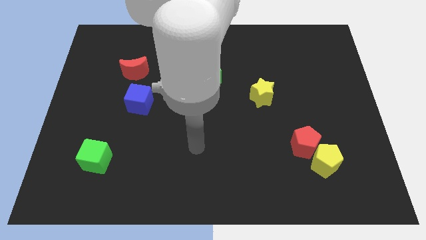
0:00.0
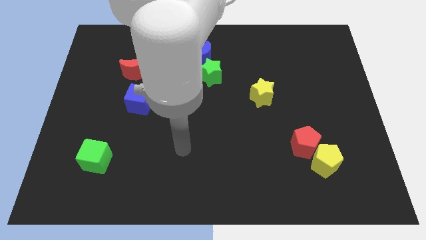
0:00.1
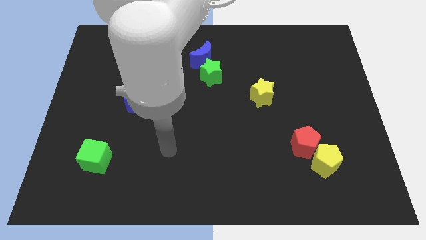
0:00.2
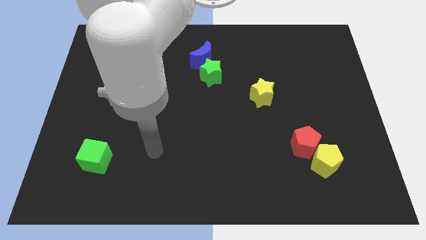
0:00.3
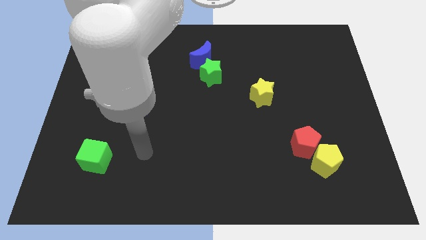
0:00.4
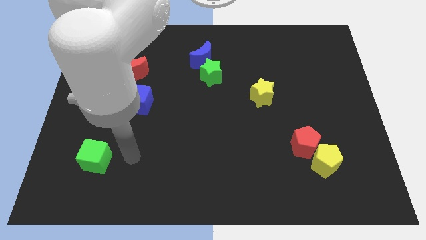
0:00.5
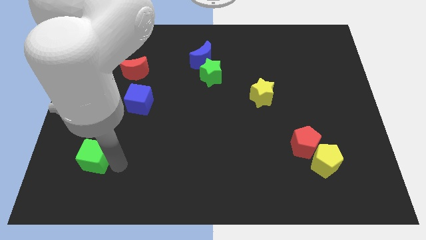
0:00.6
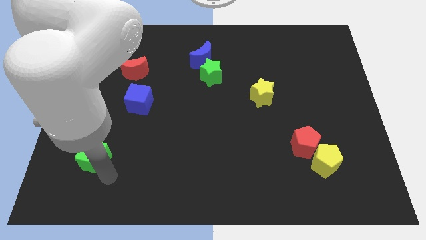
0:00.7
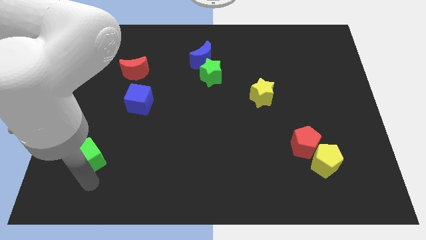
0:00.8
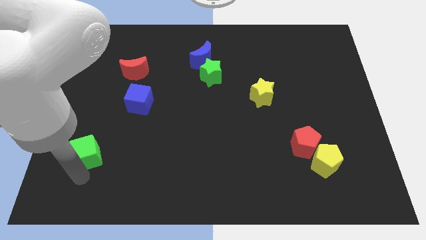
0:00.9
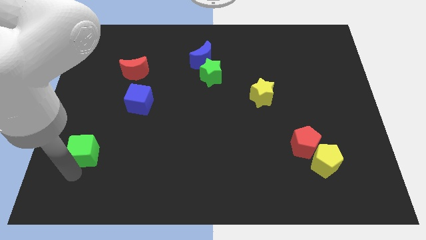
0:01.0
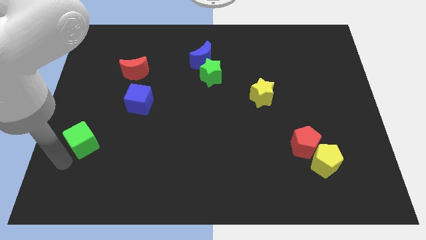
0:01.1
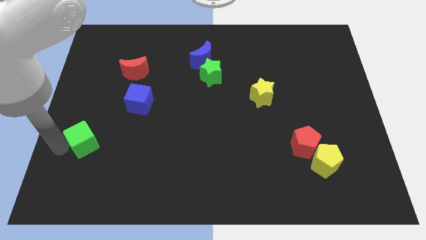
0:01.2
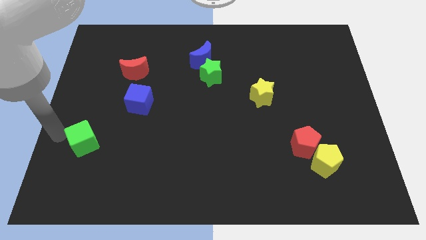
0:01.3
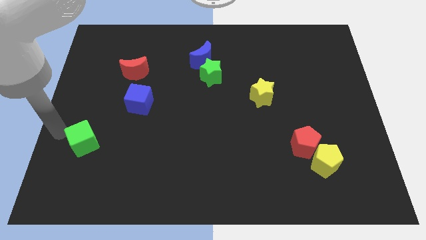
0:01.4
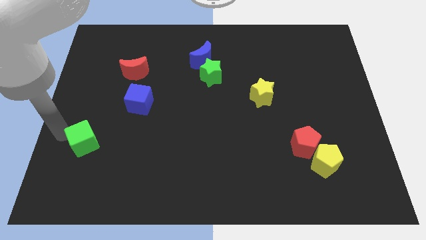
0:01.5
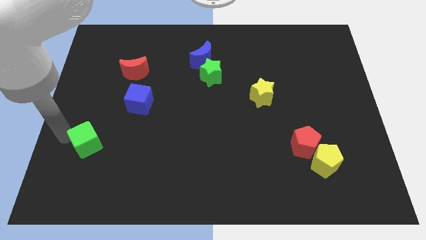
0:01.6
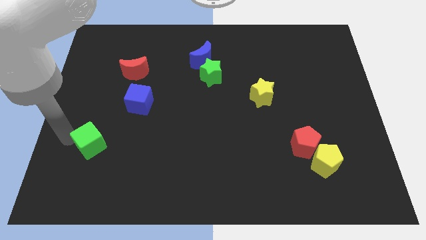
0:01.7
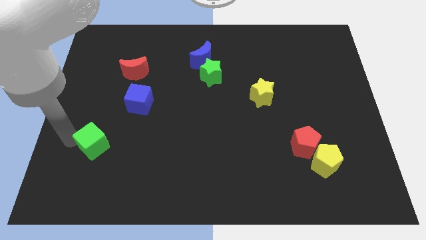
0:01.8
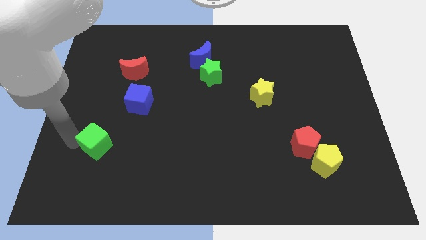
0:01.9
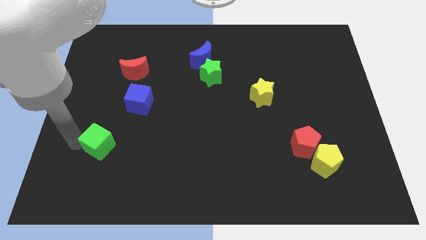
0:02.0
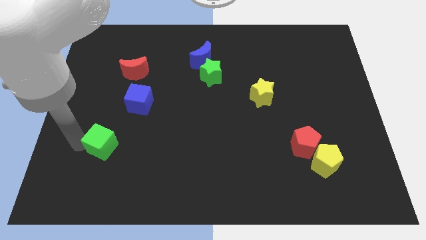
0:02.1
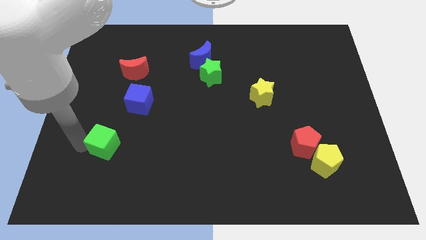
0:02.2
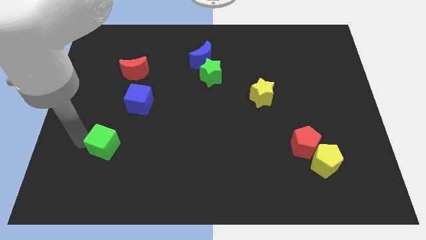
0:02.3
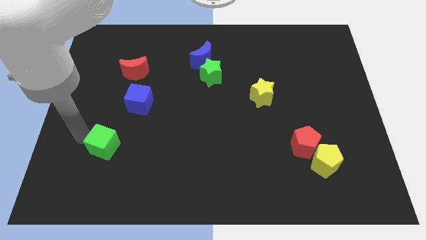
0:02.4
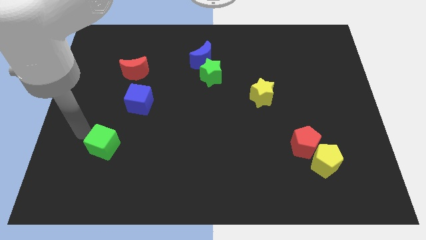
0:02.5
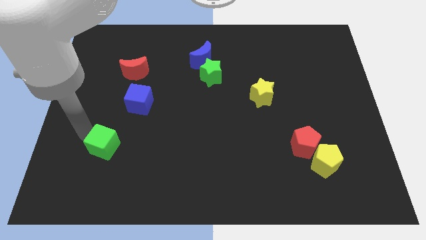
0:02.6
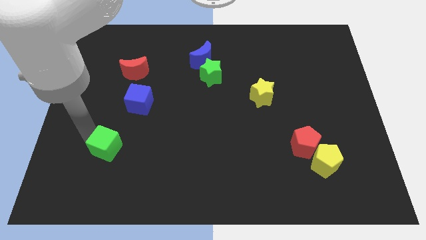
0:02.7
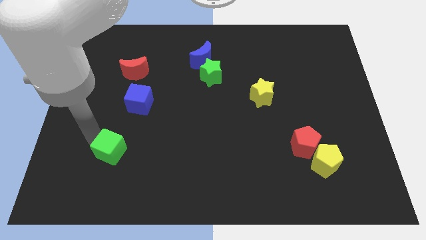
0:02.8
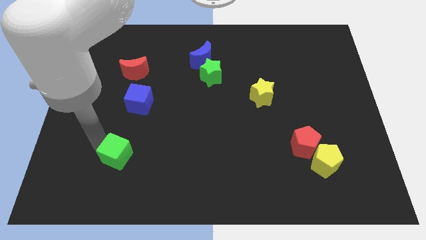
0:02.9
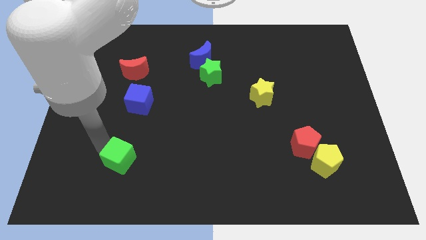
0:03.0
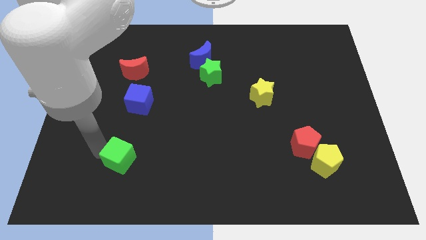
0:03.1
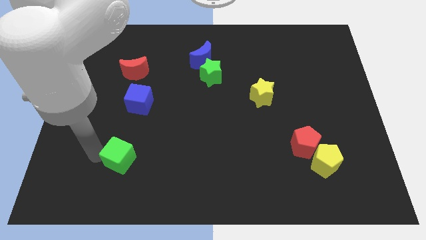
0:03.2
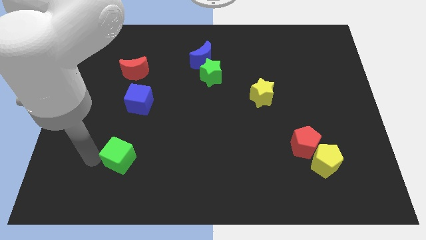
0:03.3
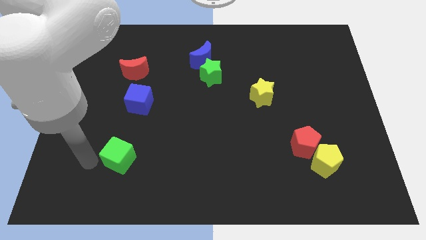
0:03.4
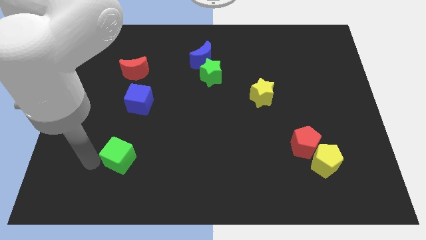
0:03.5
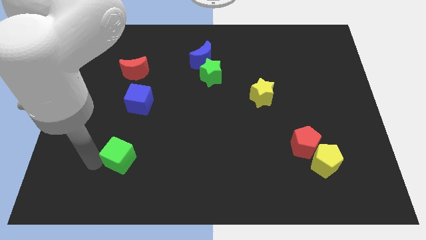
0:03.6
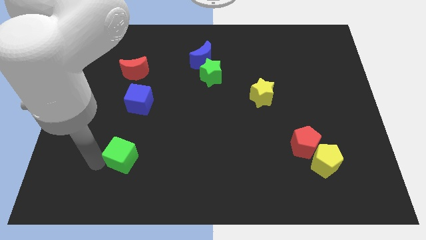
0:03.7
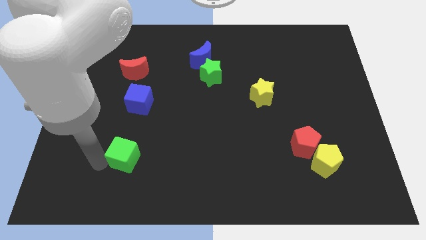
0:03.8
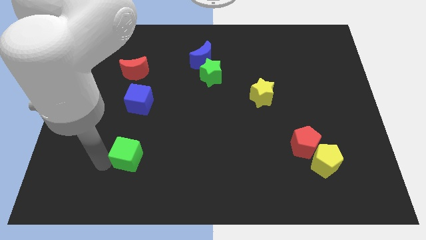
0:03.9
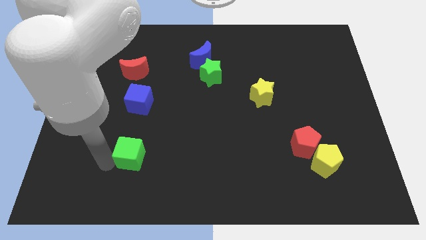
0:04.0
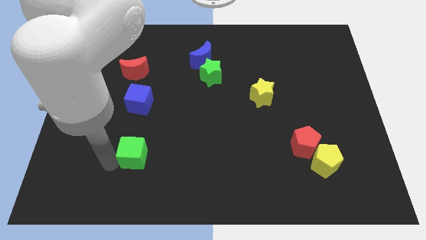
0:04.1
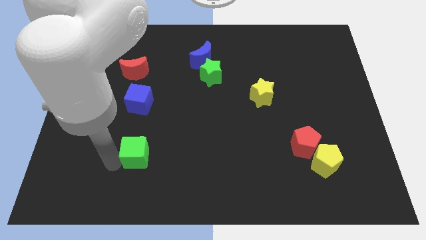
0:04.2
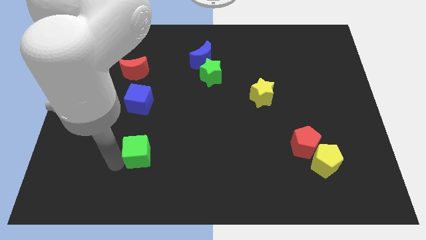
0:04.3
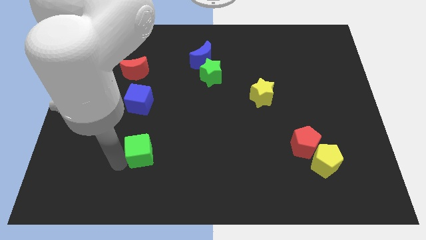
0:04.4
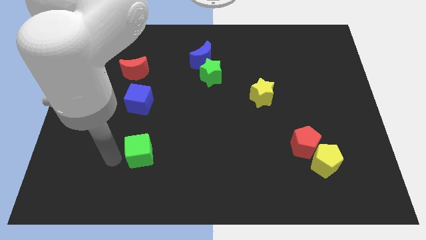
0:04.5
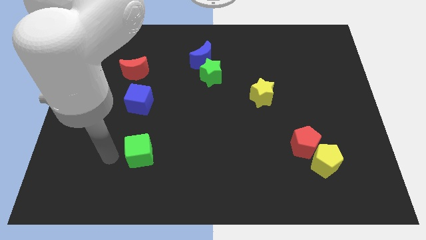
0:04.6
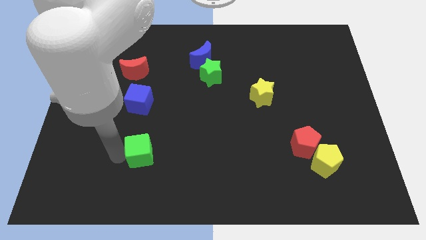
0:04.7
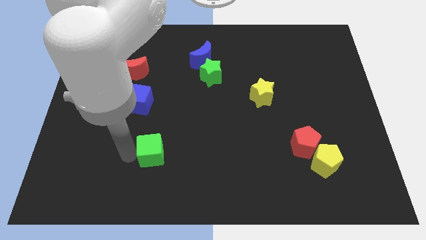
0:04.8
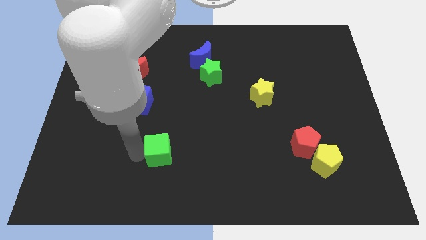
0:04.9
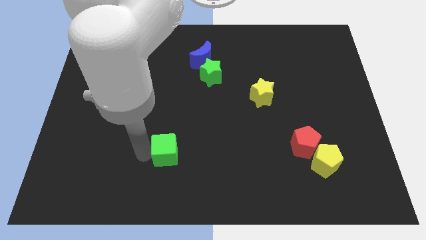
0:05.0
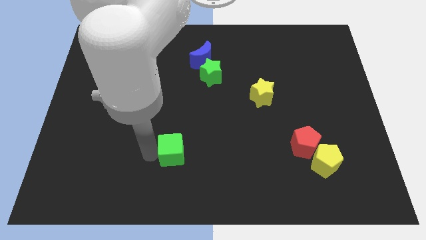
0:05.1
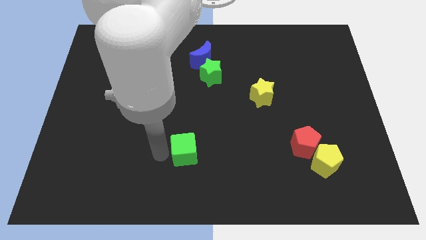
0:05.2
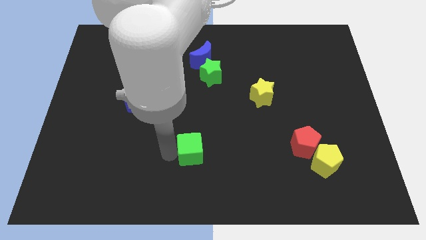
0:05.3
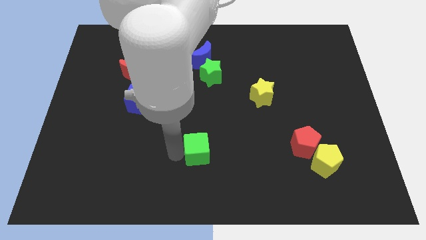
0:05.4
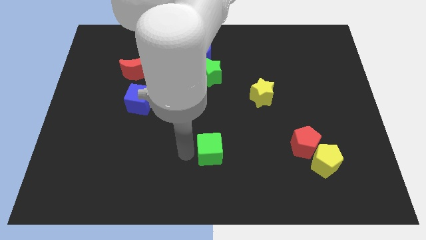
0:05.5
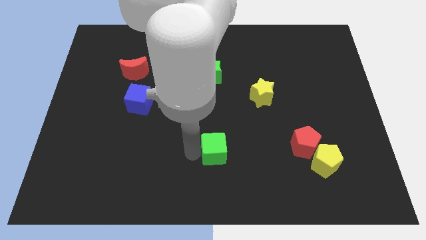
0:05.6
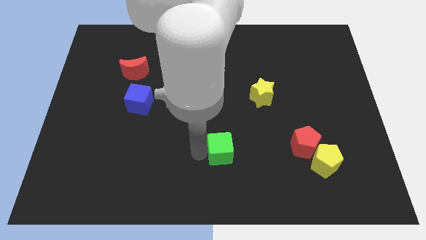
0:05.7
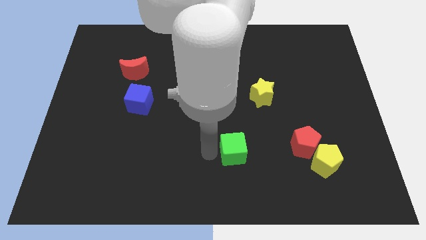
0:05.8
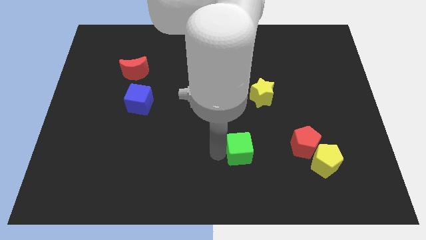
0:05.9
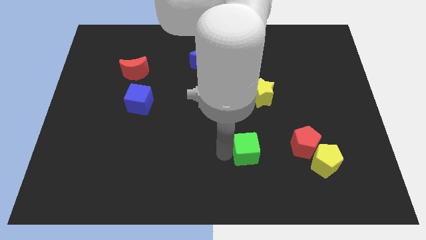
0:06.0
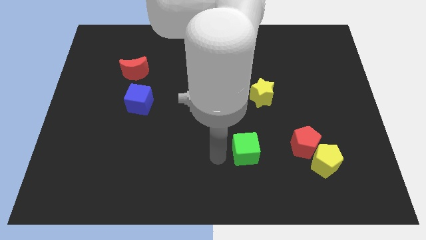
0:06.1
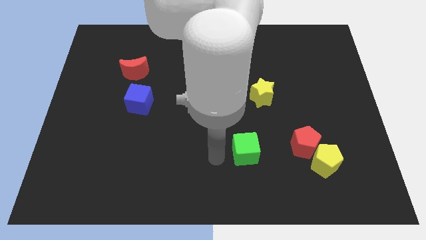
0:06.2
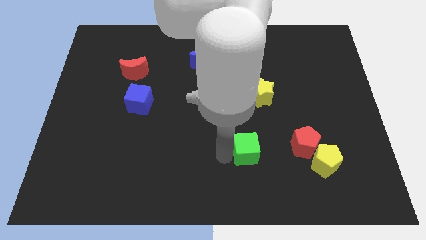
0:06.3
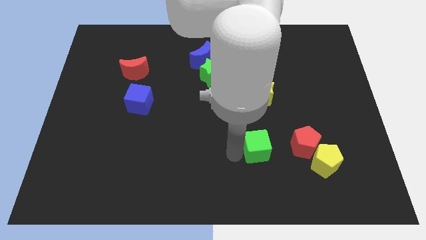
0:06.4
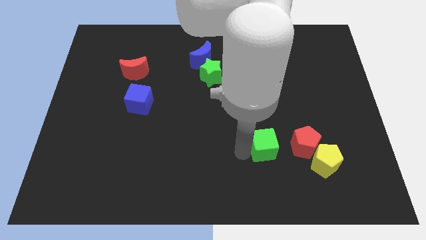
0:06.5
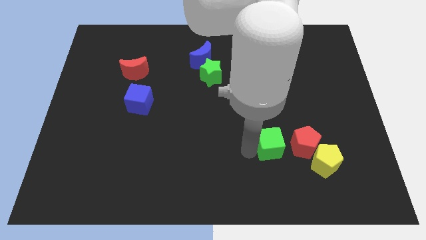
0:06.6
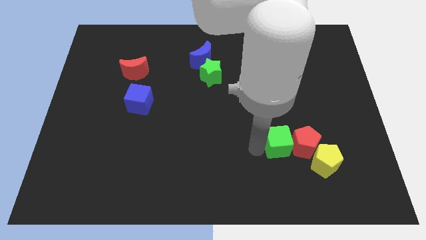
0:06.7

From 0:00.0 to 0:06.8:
put the green cube towards the red pentagon

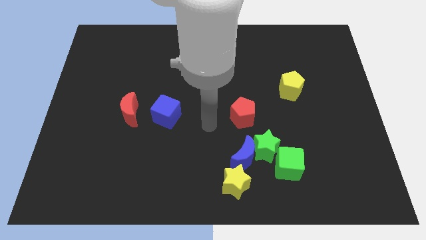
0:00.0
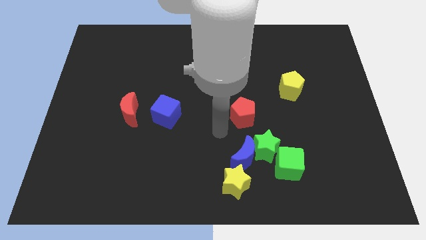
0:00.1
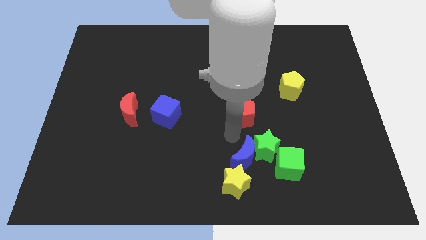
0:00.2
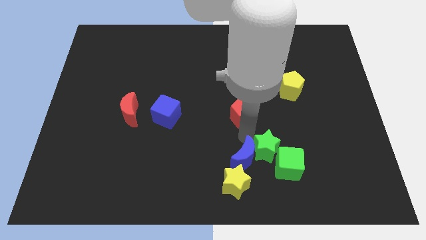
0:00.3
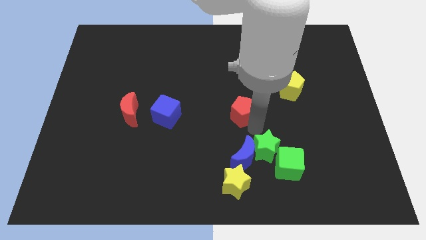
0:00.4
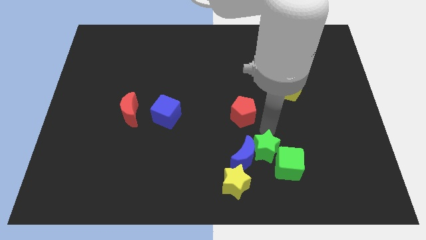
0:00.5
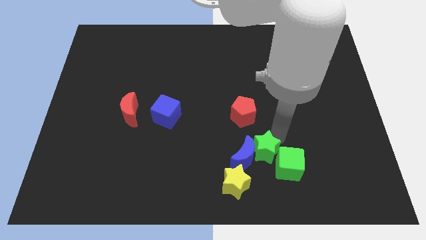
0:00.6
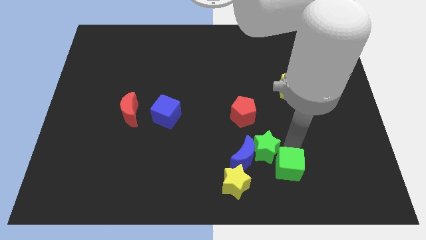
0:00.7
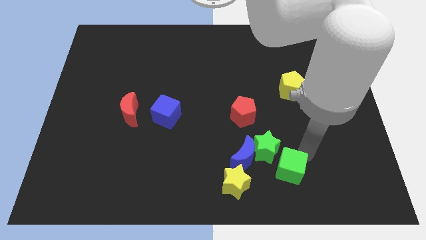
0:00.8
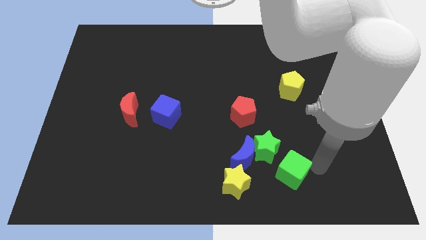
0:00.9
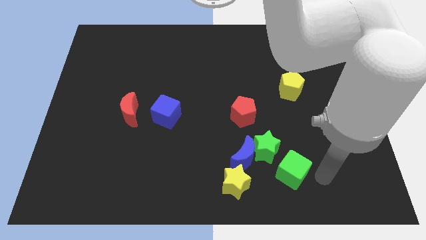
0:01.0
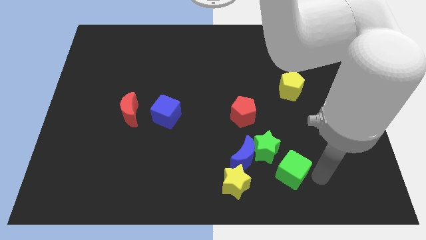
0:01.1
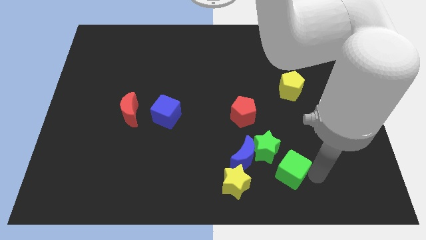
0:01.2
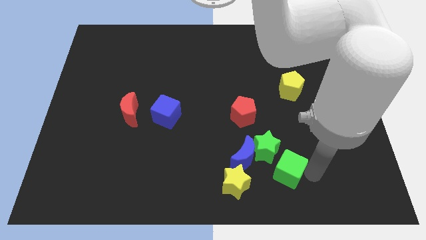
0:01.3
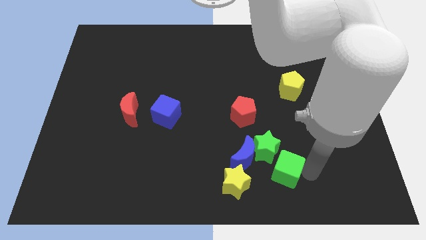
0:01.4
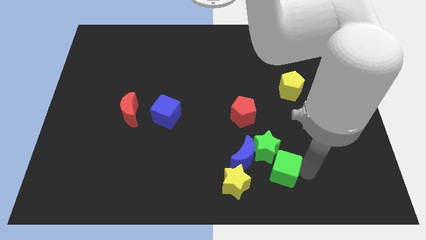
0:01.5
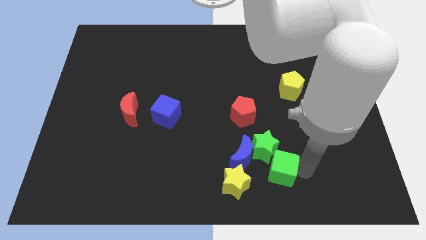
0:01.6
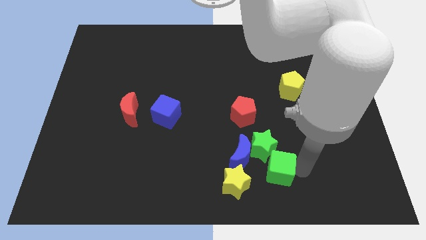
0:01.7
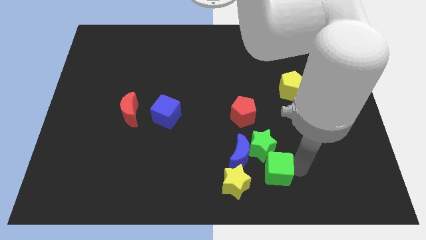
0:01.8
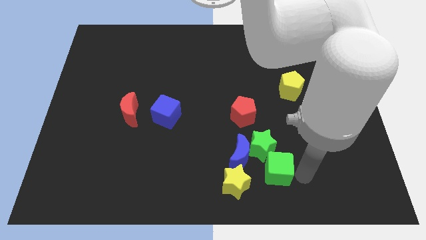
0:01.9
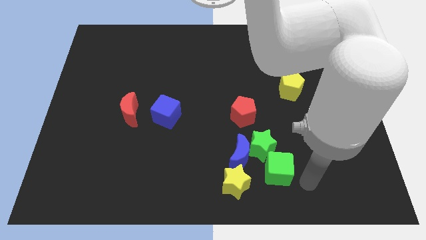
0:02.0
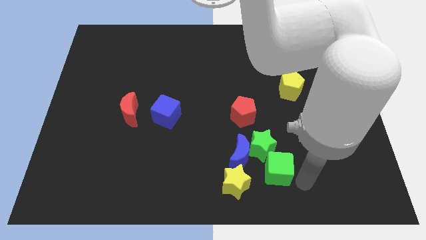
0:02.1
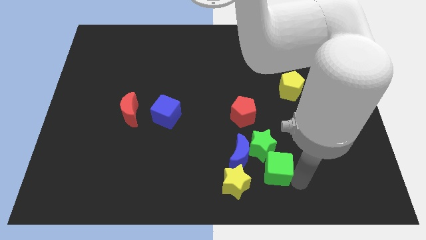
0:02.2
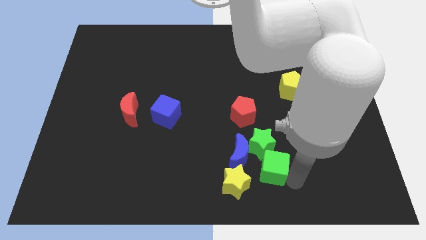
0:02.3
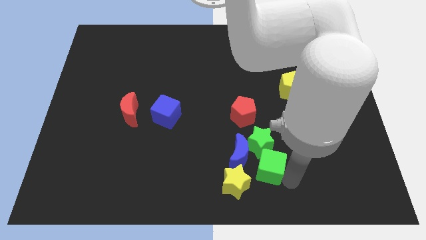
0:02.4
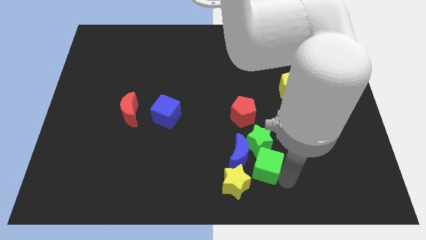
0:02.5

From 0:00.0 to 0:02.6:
slide the green cube close to the blue moon
